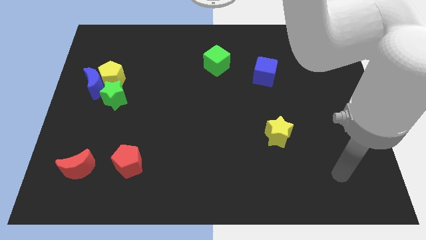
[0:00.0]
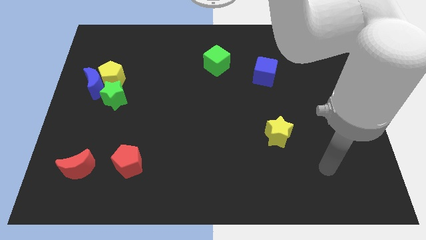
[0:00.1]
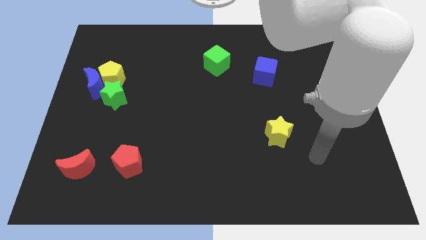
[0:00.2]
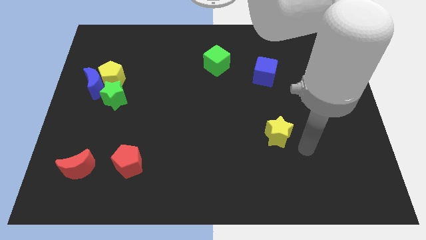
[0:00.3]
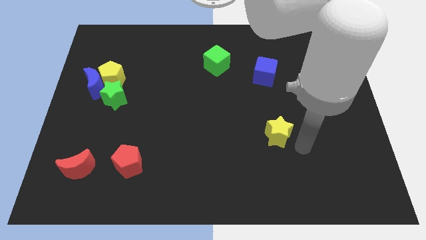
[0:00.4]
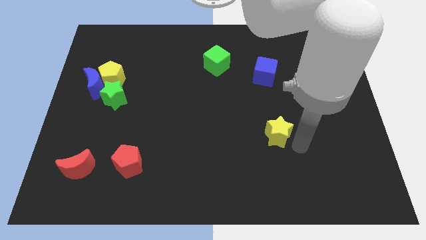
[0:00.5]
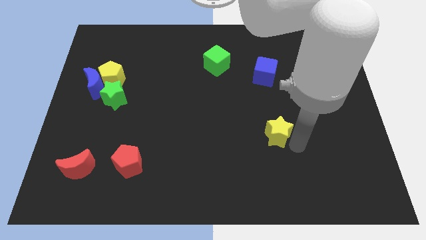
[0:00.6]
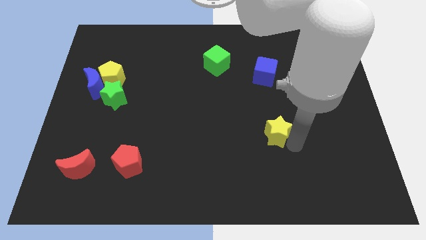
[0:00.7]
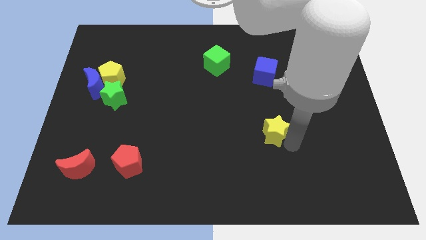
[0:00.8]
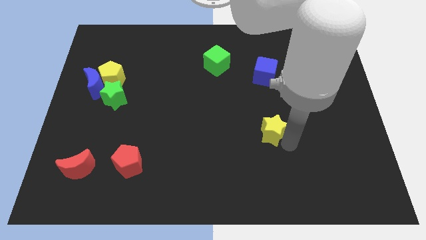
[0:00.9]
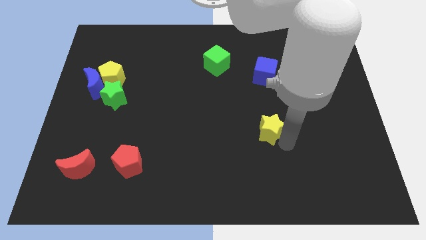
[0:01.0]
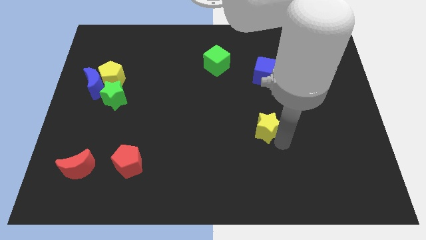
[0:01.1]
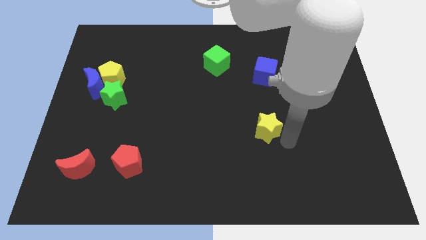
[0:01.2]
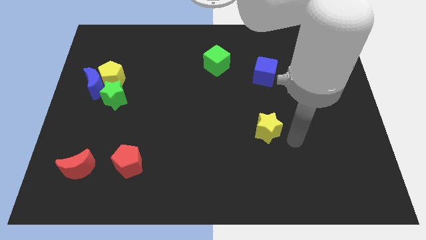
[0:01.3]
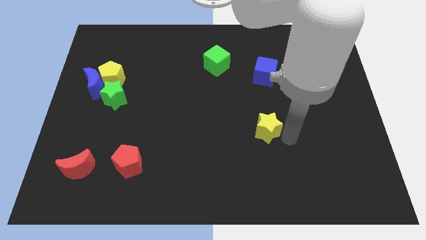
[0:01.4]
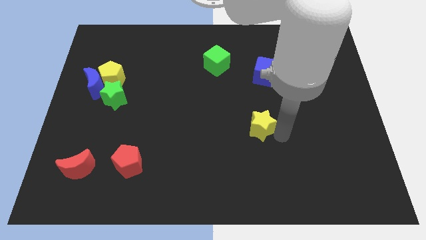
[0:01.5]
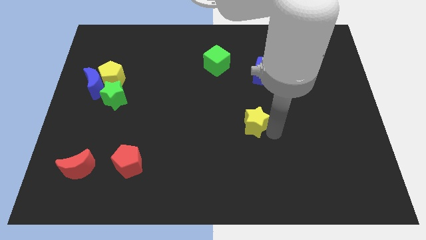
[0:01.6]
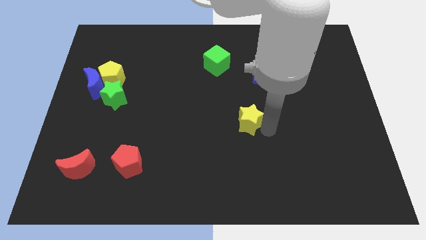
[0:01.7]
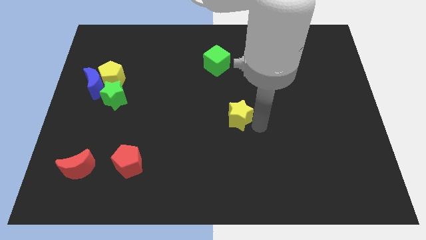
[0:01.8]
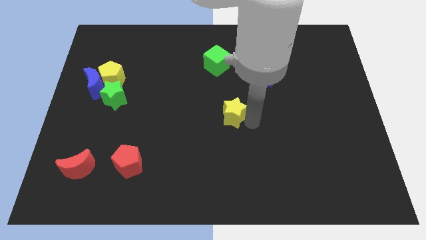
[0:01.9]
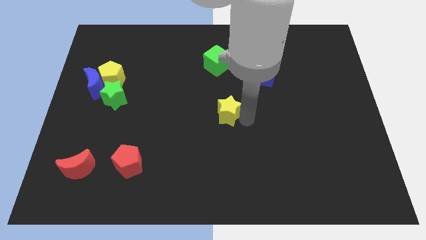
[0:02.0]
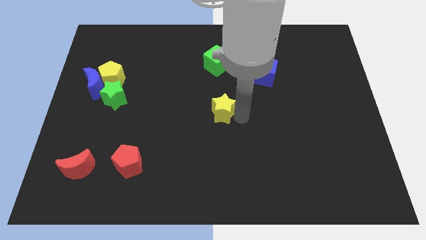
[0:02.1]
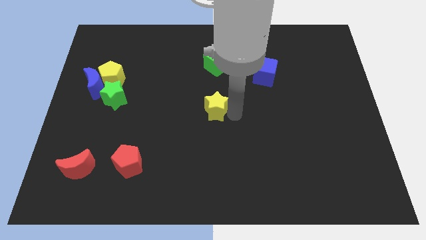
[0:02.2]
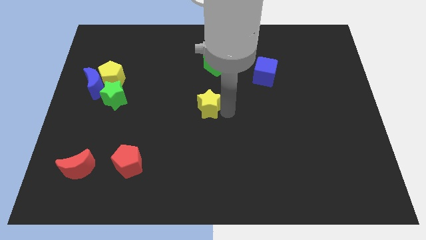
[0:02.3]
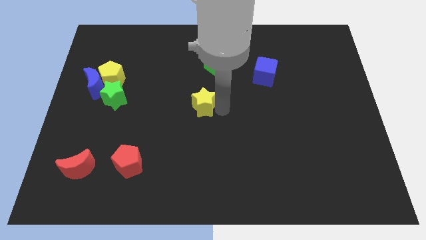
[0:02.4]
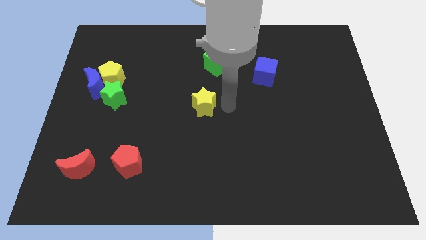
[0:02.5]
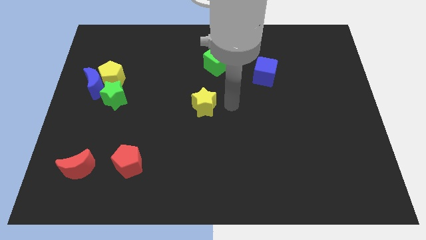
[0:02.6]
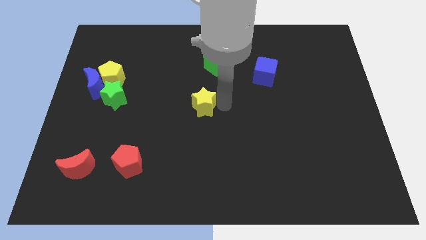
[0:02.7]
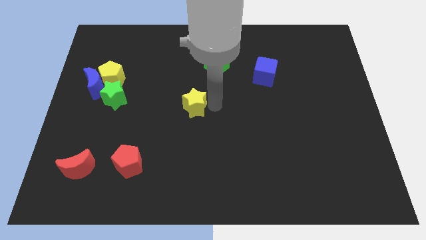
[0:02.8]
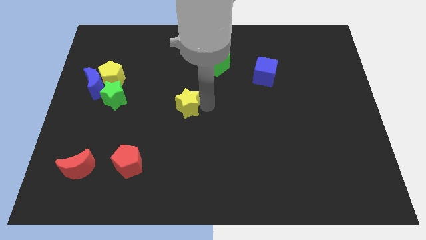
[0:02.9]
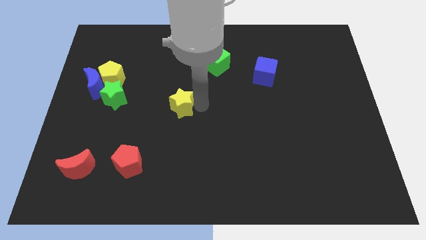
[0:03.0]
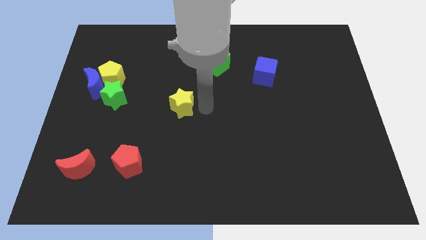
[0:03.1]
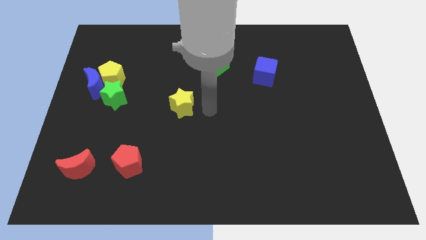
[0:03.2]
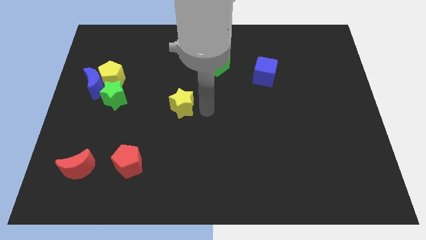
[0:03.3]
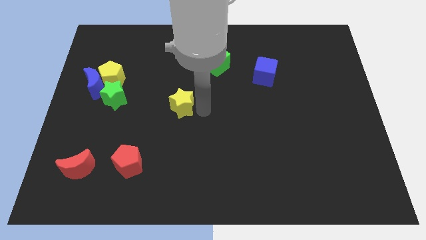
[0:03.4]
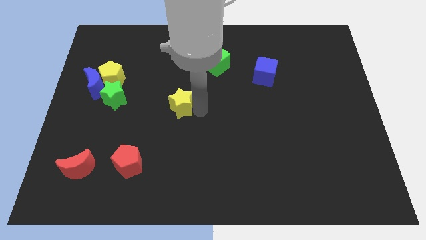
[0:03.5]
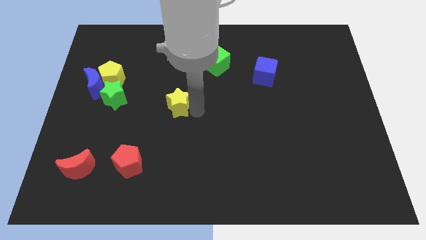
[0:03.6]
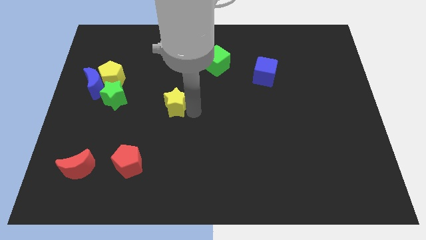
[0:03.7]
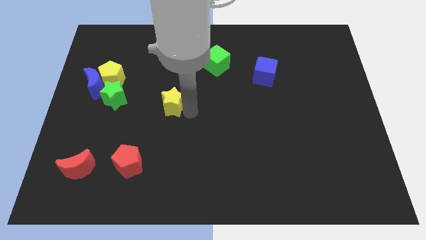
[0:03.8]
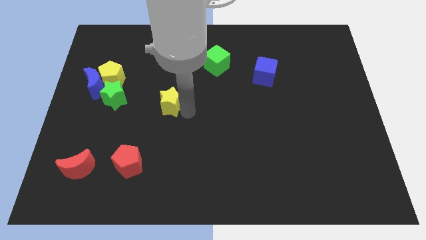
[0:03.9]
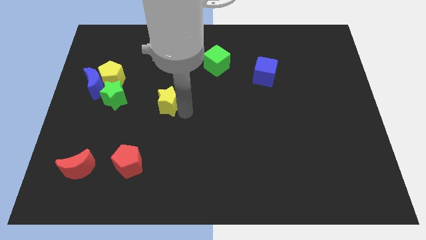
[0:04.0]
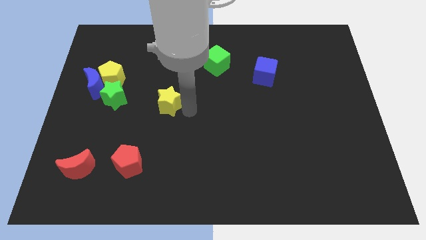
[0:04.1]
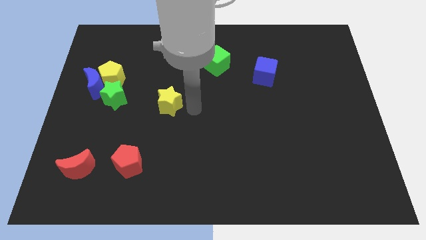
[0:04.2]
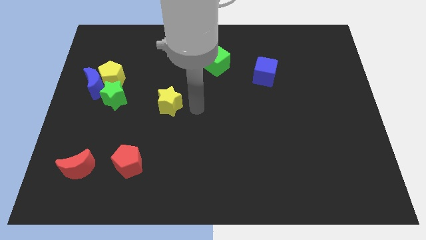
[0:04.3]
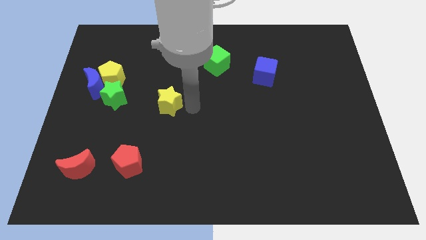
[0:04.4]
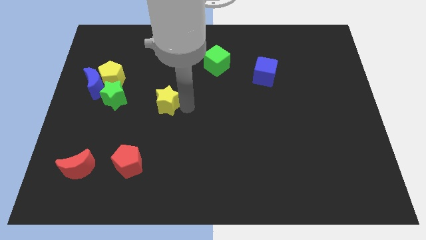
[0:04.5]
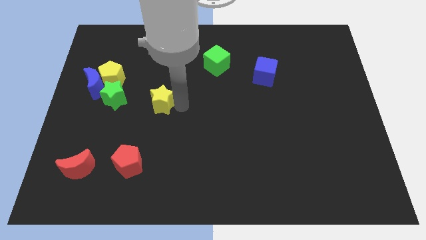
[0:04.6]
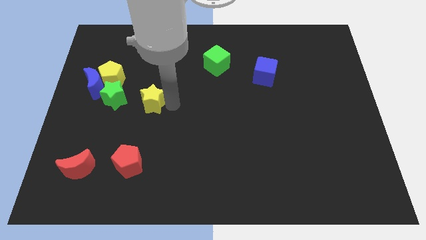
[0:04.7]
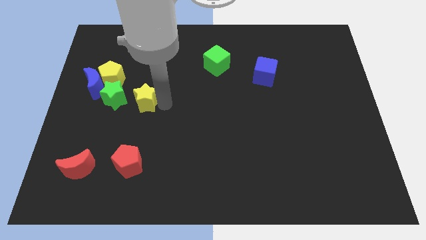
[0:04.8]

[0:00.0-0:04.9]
slide the yellow star diagonally down and to the right of the yellow pentagon

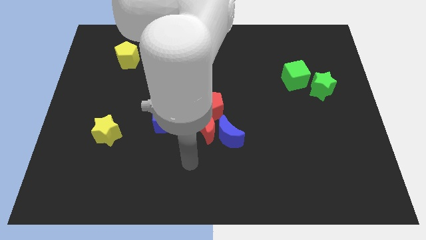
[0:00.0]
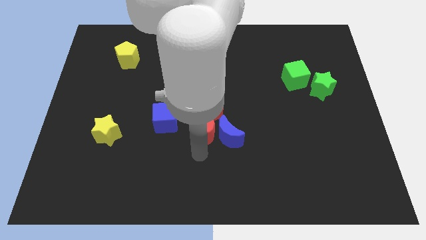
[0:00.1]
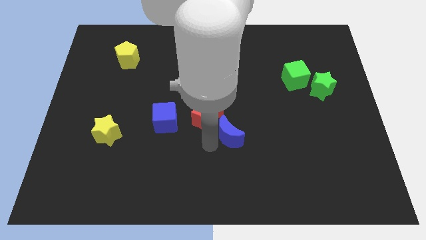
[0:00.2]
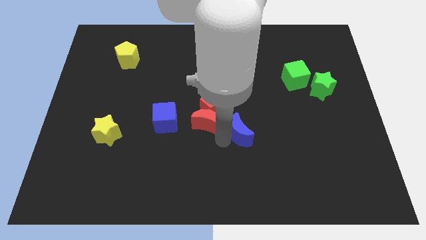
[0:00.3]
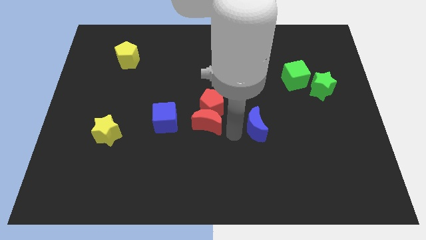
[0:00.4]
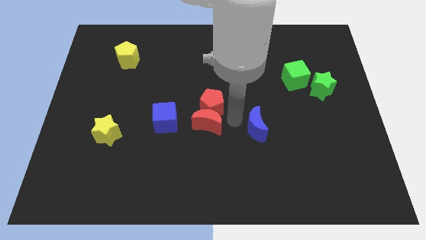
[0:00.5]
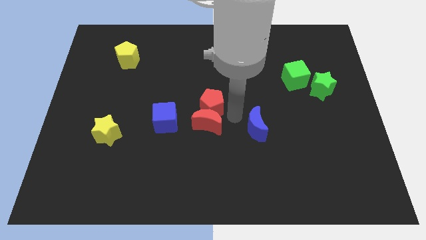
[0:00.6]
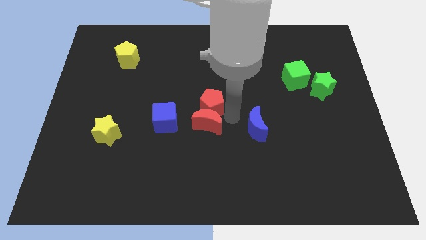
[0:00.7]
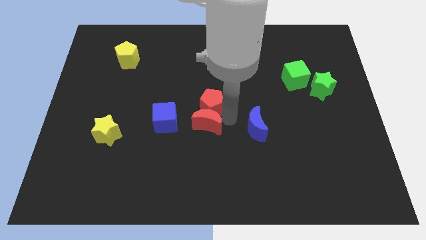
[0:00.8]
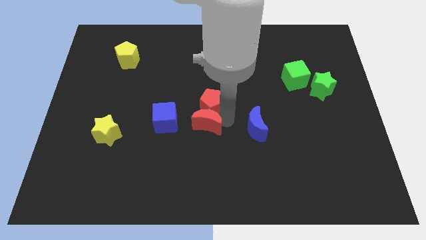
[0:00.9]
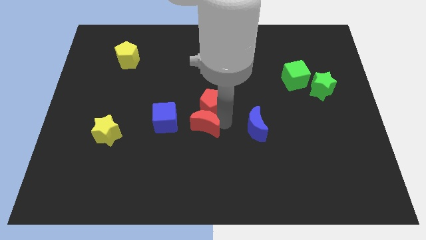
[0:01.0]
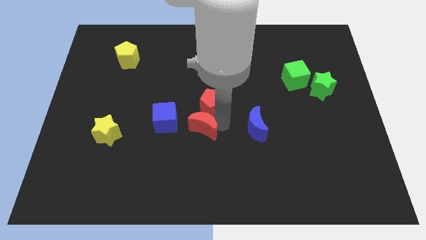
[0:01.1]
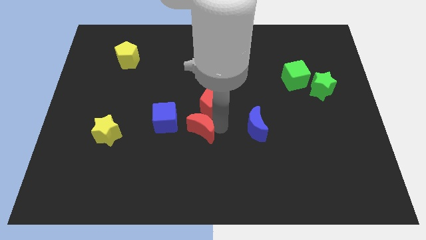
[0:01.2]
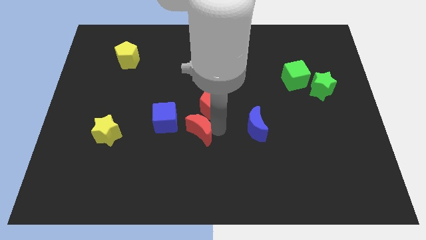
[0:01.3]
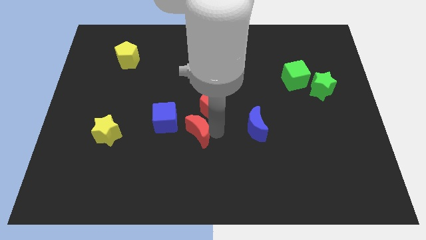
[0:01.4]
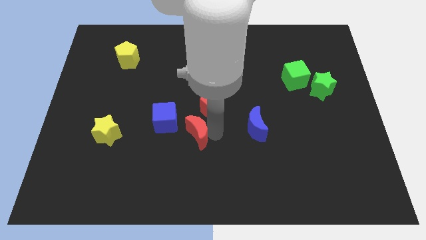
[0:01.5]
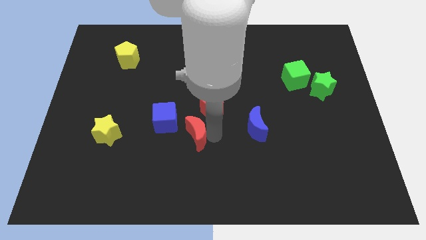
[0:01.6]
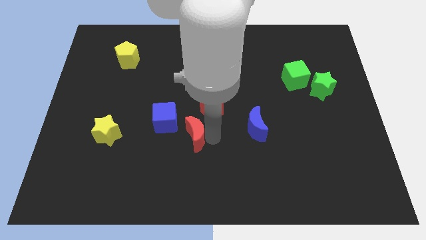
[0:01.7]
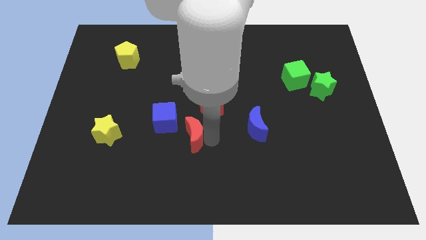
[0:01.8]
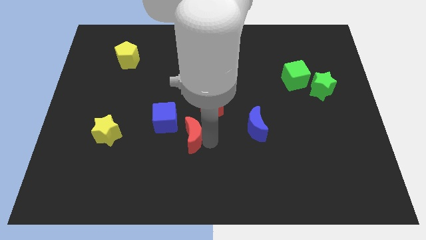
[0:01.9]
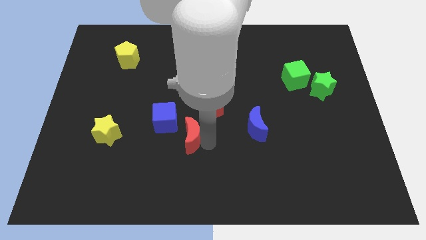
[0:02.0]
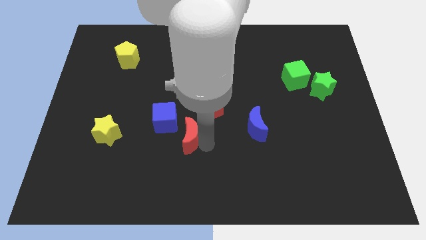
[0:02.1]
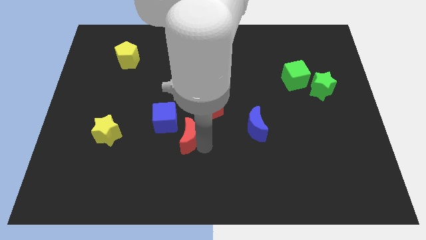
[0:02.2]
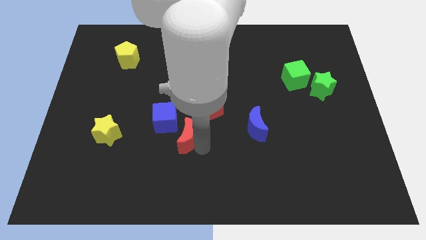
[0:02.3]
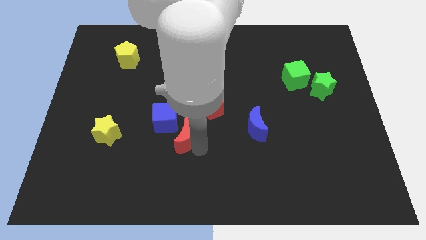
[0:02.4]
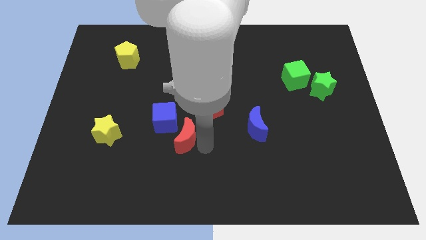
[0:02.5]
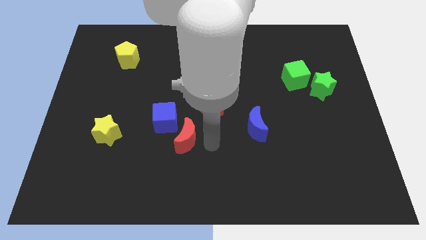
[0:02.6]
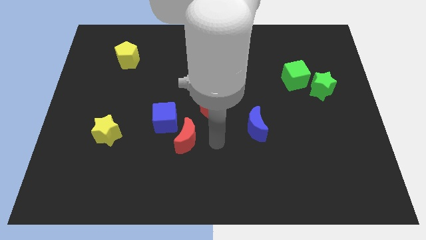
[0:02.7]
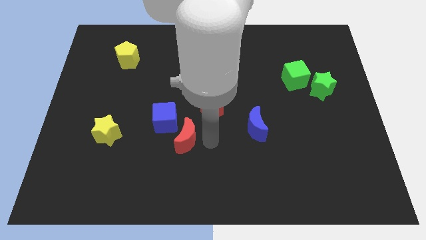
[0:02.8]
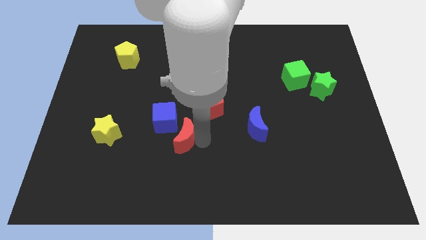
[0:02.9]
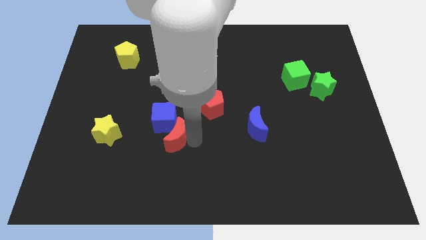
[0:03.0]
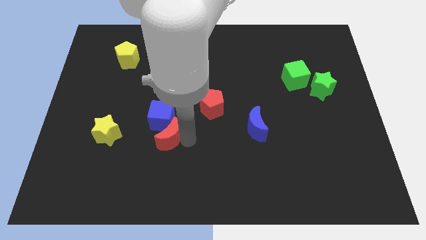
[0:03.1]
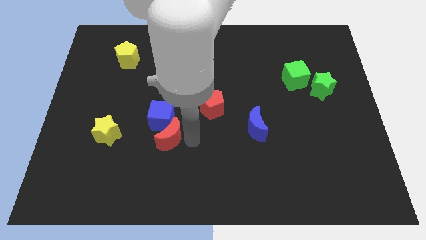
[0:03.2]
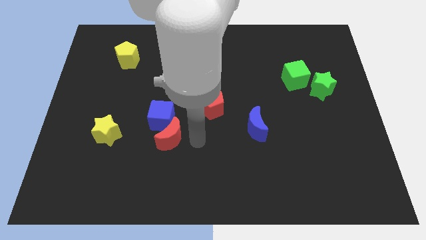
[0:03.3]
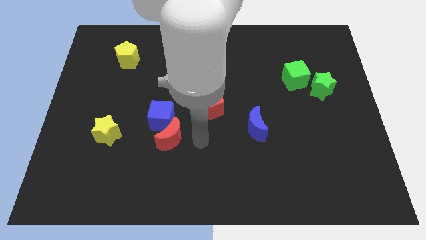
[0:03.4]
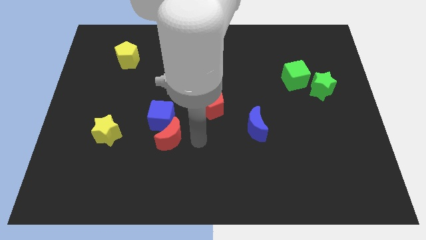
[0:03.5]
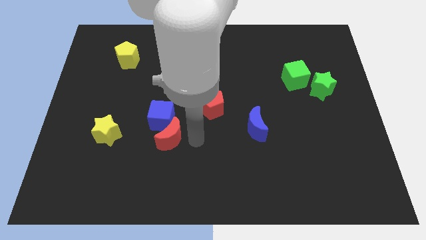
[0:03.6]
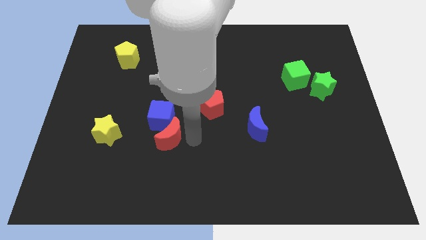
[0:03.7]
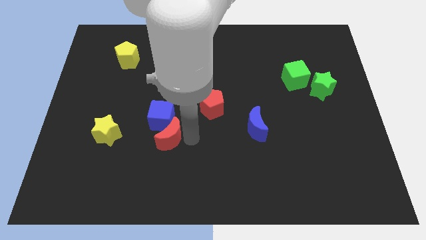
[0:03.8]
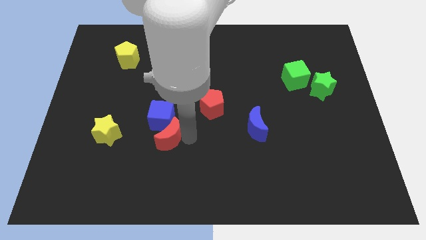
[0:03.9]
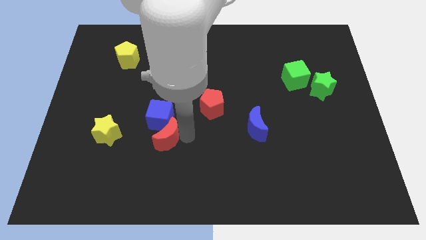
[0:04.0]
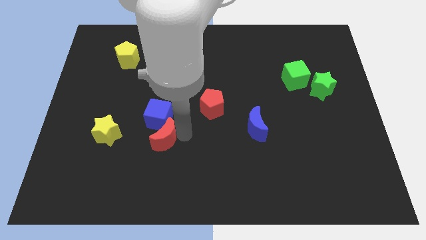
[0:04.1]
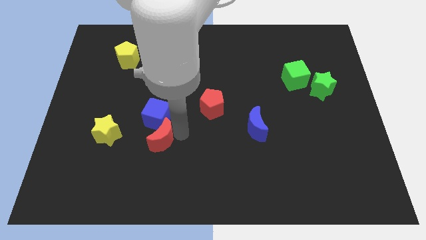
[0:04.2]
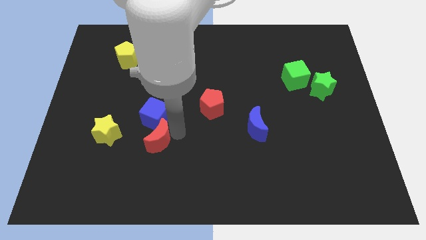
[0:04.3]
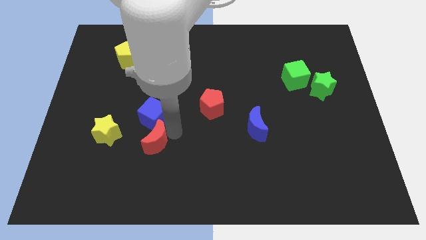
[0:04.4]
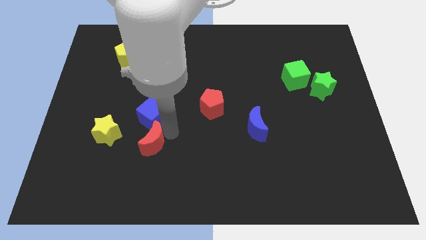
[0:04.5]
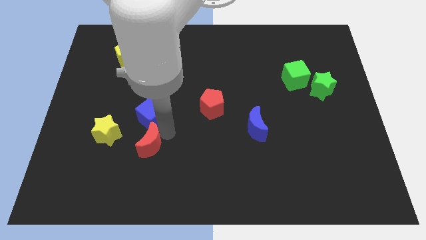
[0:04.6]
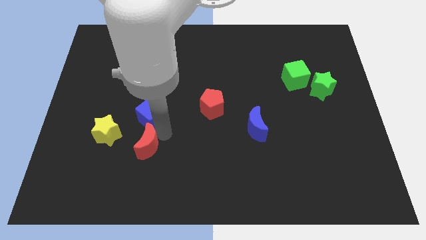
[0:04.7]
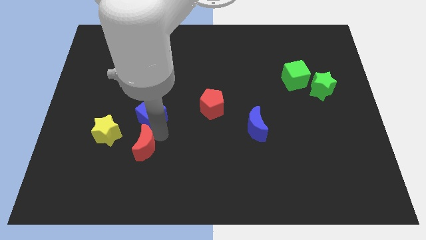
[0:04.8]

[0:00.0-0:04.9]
push the red moon to the bottom left side of the blue cube
